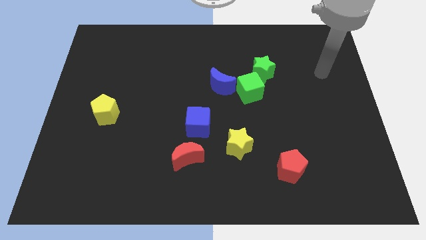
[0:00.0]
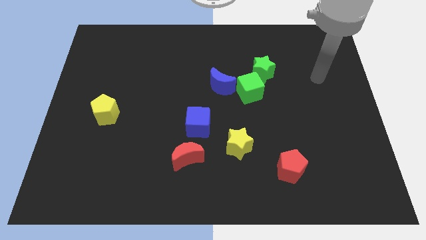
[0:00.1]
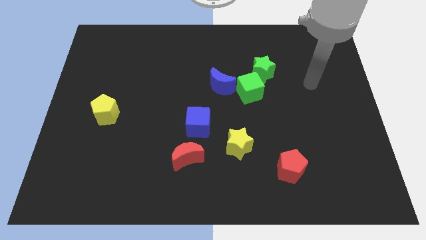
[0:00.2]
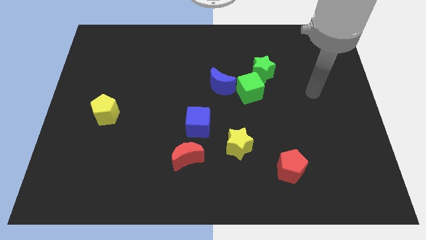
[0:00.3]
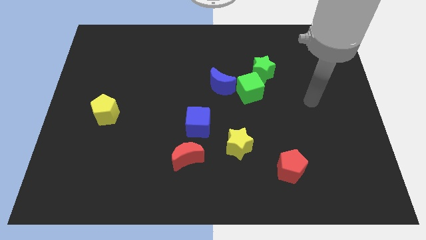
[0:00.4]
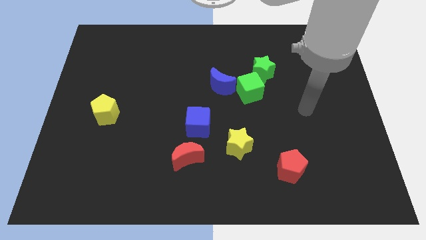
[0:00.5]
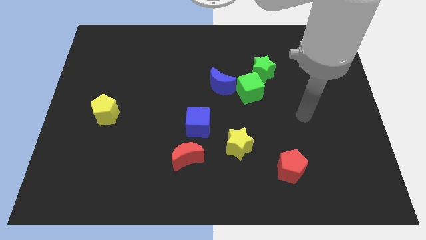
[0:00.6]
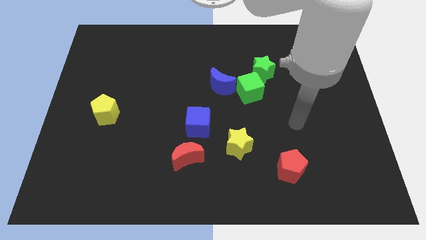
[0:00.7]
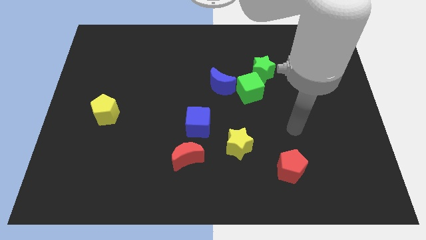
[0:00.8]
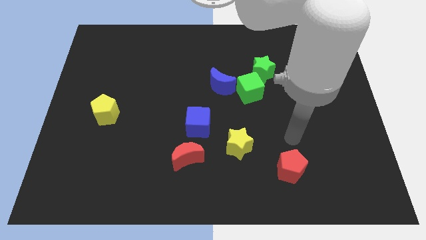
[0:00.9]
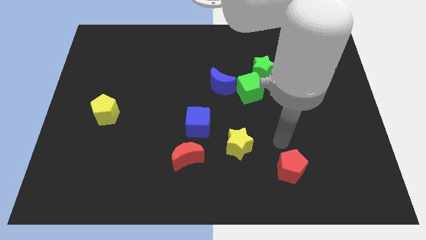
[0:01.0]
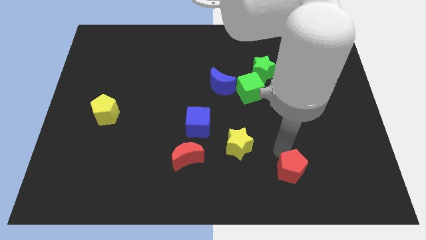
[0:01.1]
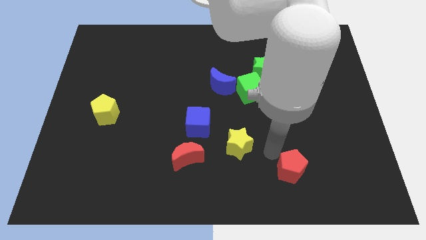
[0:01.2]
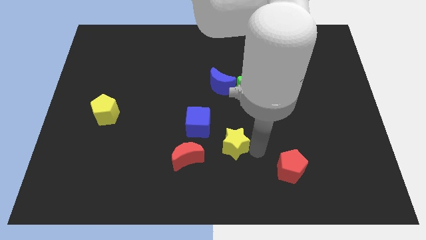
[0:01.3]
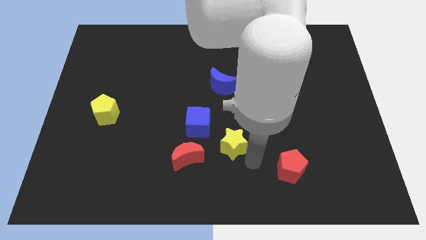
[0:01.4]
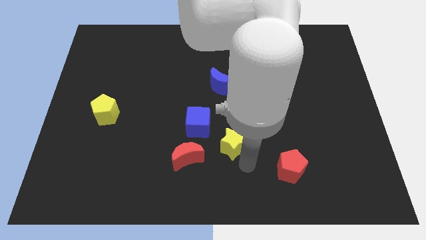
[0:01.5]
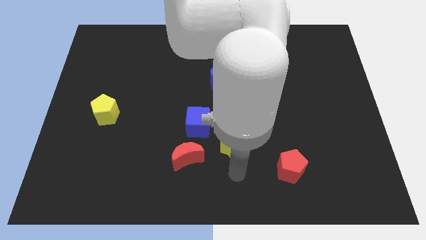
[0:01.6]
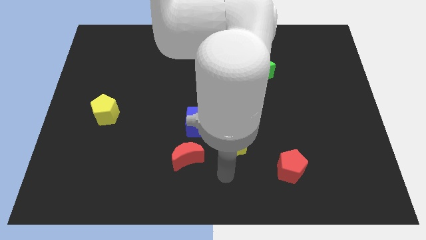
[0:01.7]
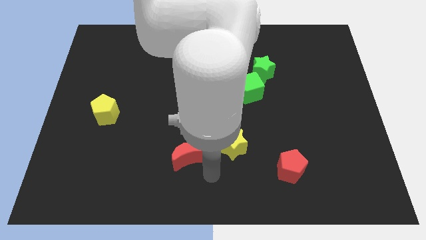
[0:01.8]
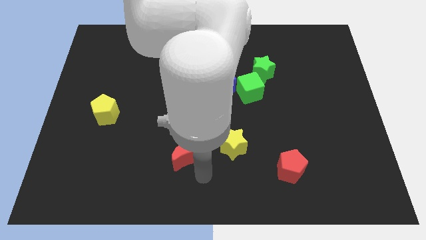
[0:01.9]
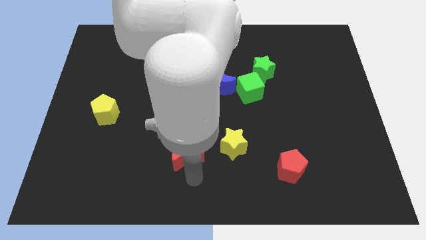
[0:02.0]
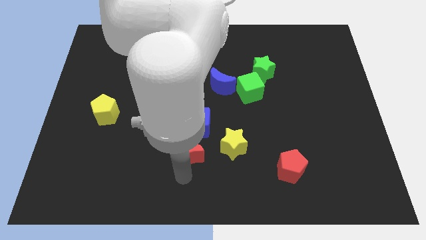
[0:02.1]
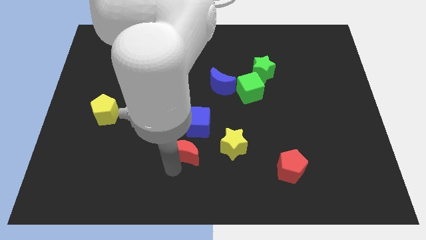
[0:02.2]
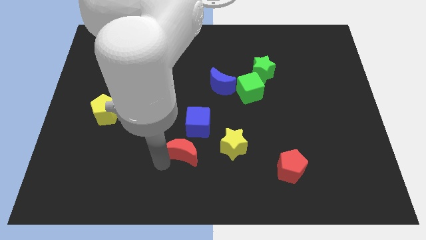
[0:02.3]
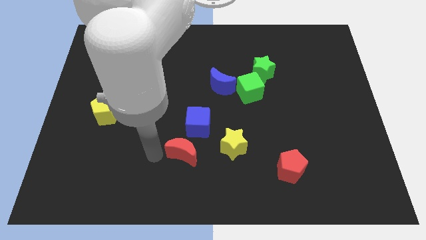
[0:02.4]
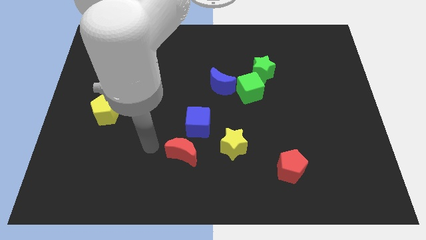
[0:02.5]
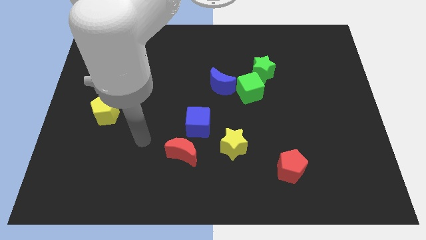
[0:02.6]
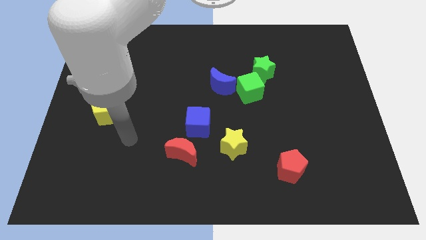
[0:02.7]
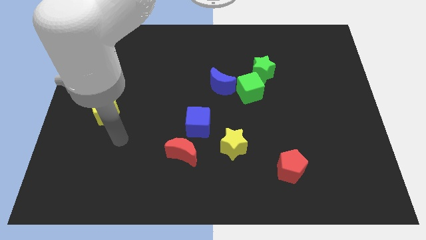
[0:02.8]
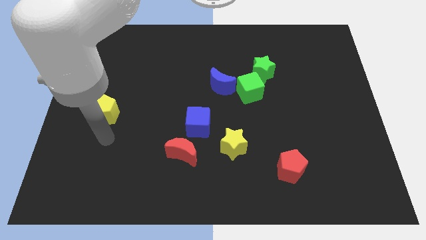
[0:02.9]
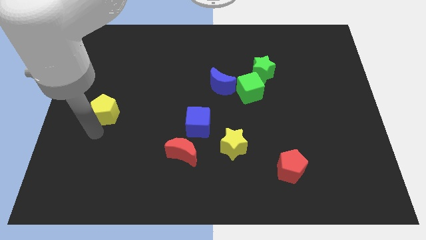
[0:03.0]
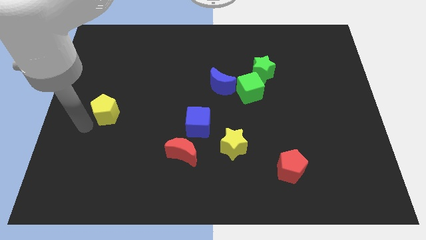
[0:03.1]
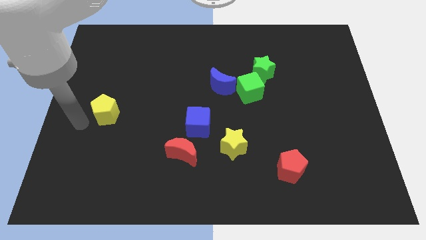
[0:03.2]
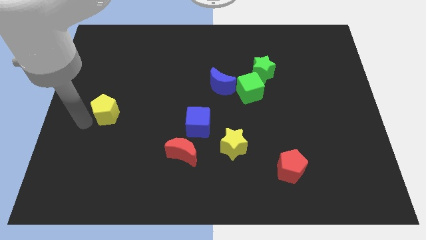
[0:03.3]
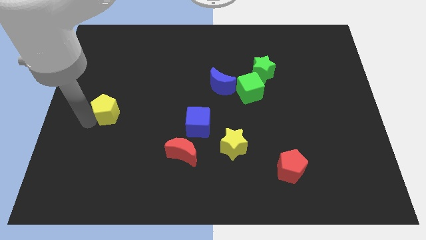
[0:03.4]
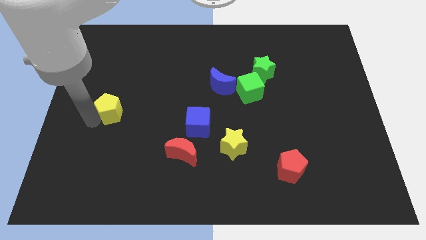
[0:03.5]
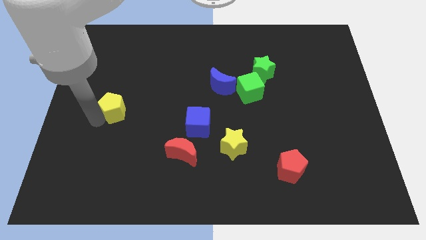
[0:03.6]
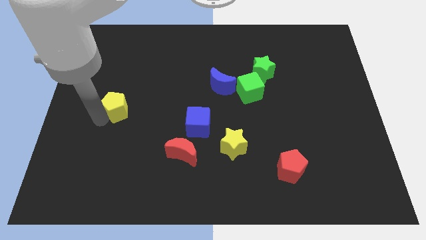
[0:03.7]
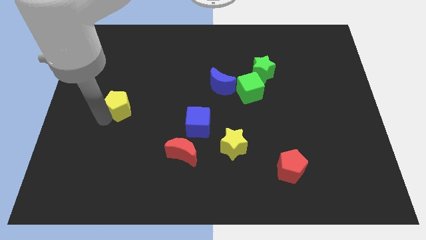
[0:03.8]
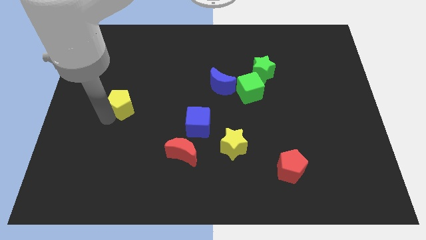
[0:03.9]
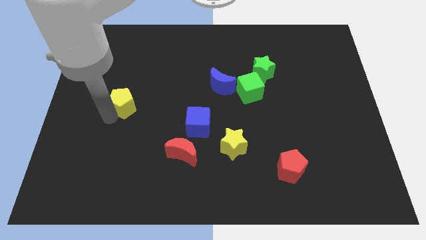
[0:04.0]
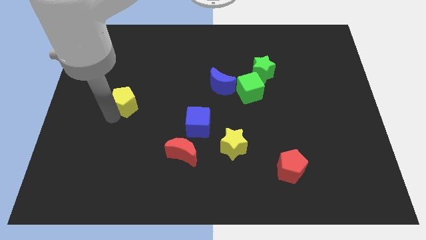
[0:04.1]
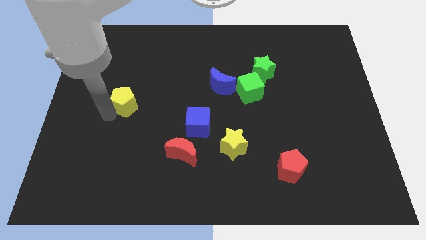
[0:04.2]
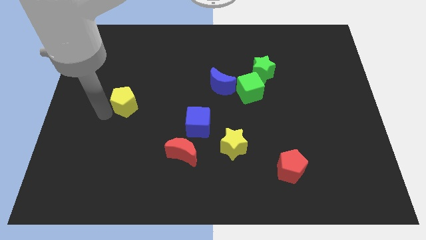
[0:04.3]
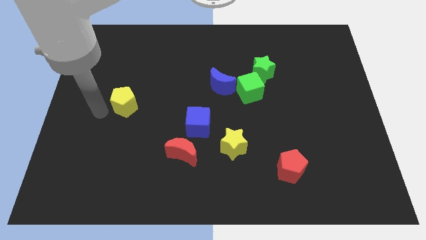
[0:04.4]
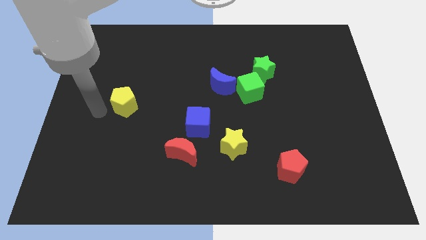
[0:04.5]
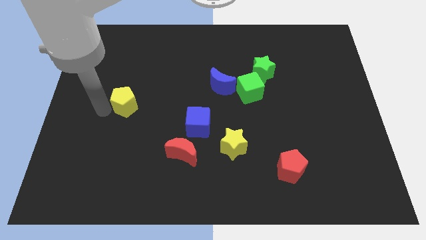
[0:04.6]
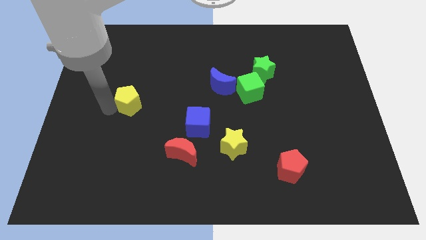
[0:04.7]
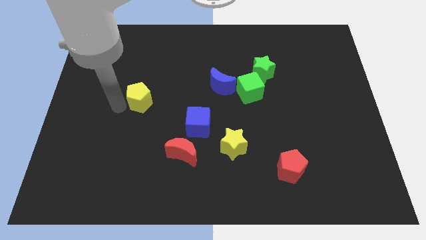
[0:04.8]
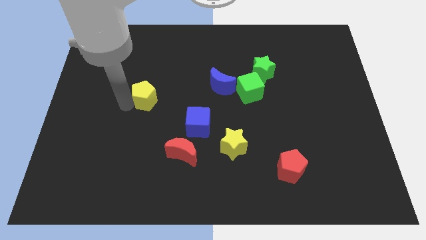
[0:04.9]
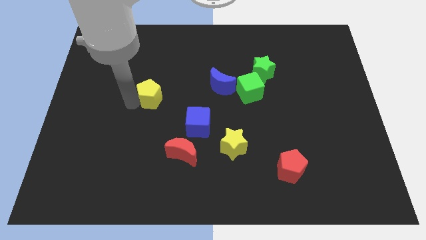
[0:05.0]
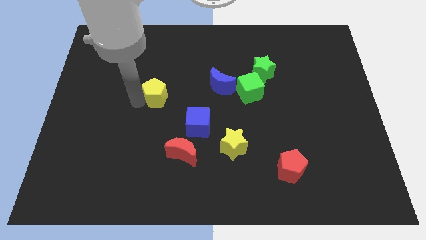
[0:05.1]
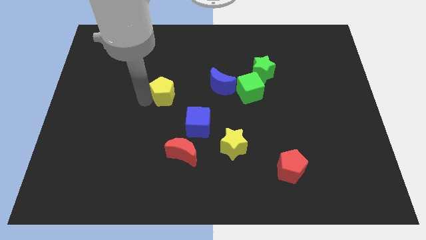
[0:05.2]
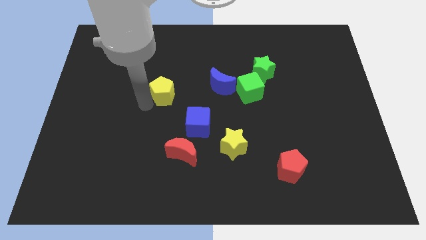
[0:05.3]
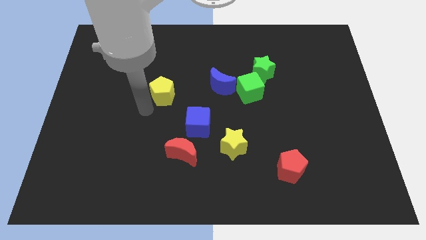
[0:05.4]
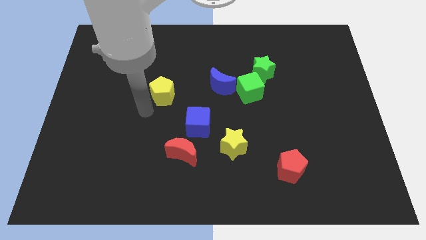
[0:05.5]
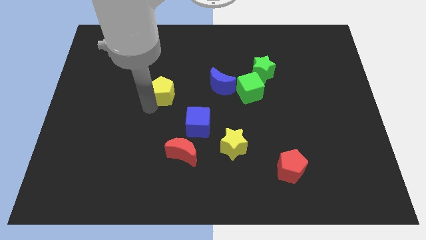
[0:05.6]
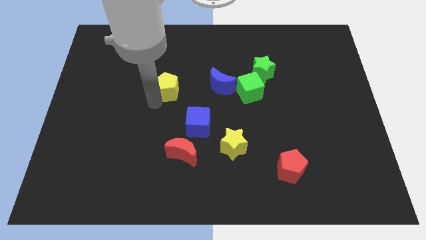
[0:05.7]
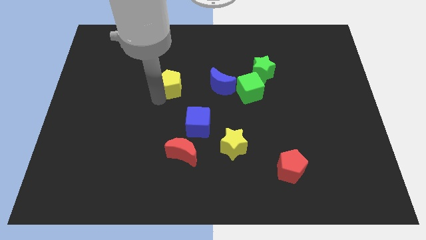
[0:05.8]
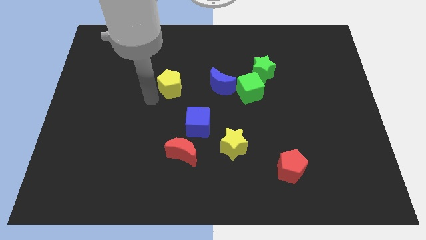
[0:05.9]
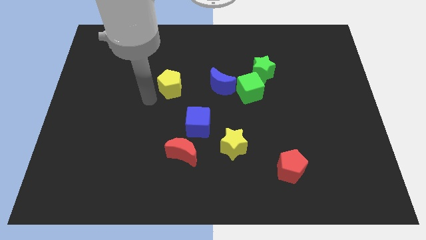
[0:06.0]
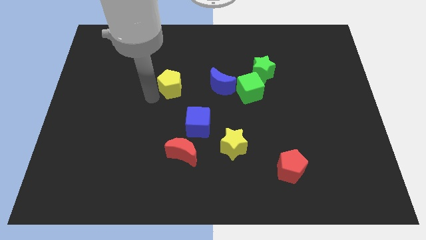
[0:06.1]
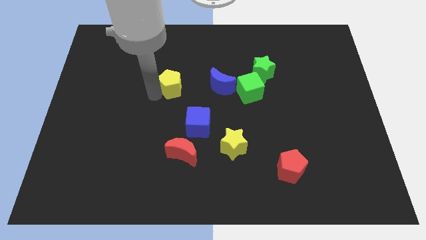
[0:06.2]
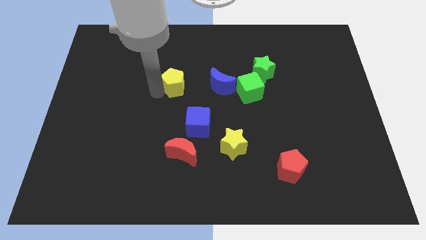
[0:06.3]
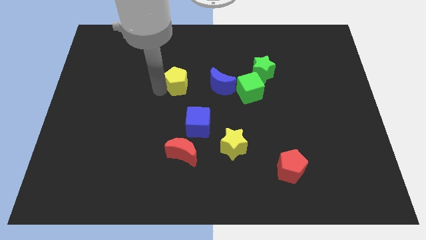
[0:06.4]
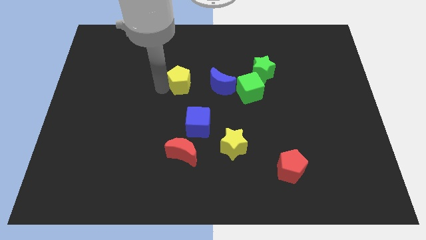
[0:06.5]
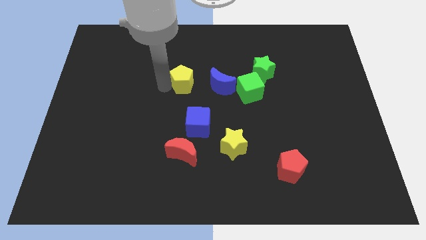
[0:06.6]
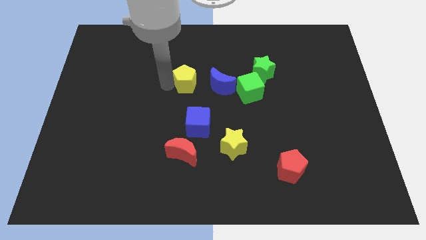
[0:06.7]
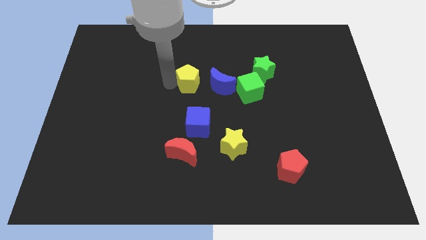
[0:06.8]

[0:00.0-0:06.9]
push the yellow pentagon diagonally up and to the left of the blue moon
